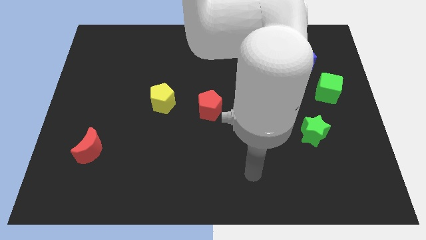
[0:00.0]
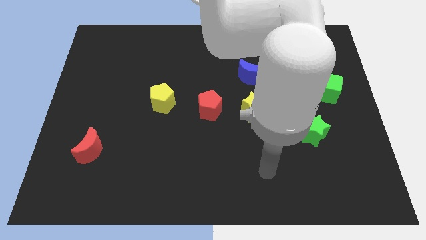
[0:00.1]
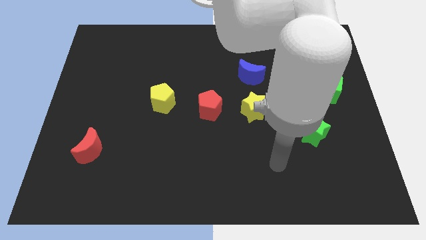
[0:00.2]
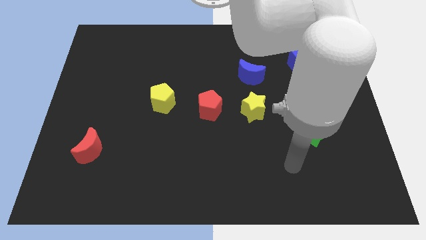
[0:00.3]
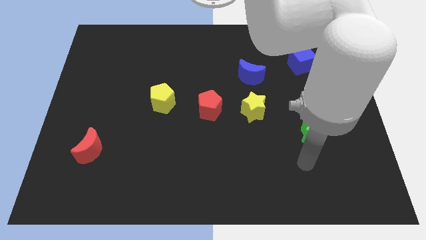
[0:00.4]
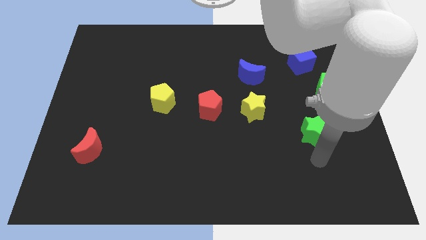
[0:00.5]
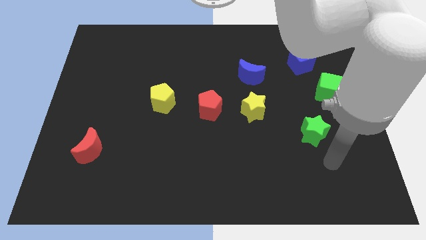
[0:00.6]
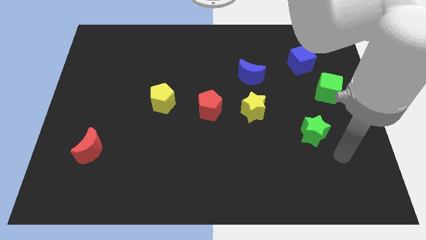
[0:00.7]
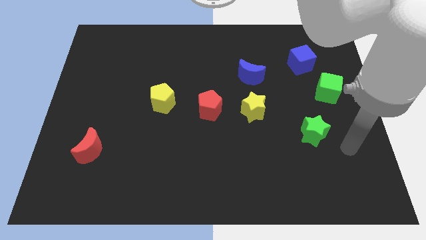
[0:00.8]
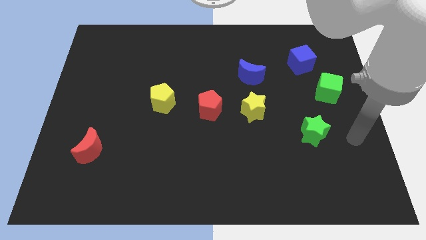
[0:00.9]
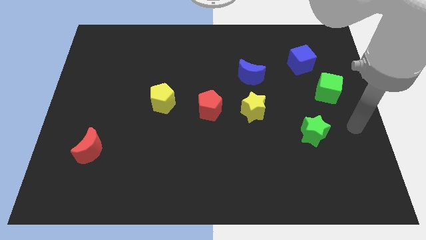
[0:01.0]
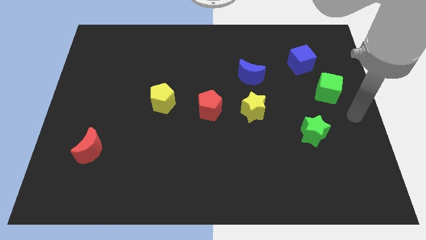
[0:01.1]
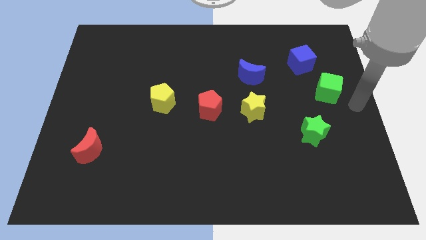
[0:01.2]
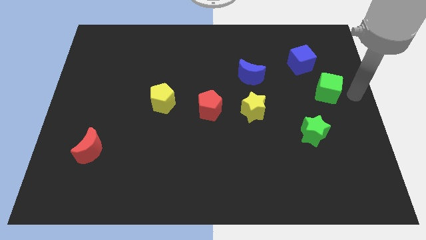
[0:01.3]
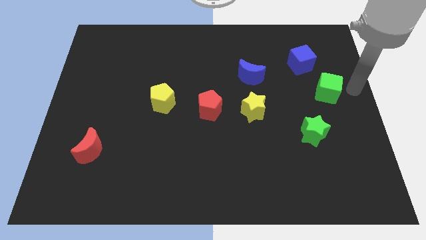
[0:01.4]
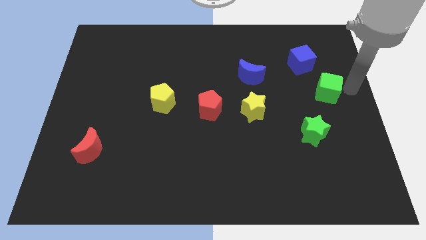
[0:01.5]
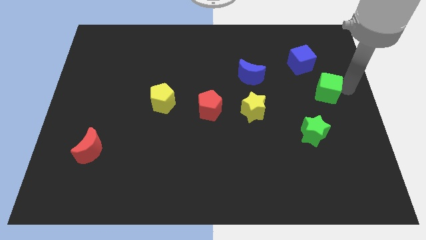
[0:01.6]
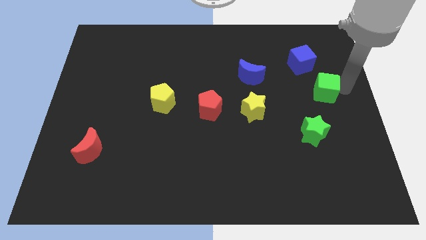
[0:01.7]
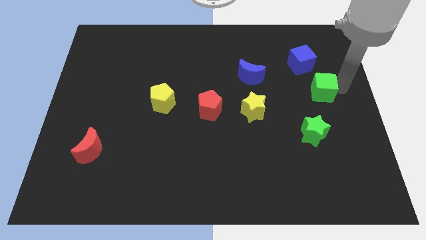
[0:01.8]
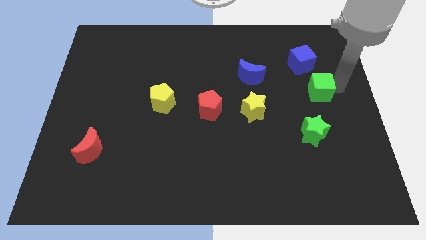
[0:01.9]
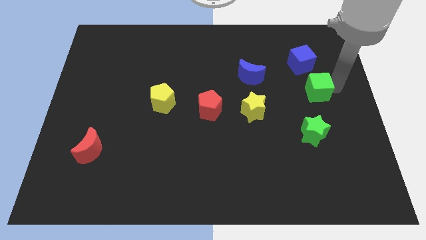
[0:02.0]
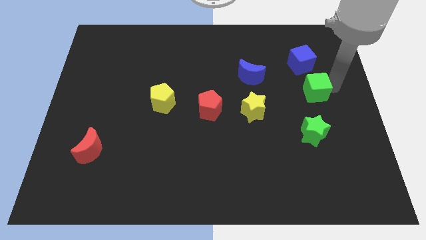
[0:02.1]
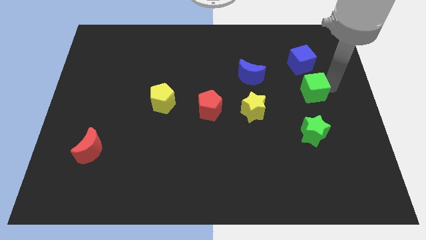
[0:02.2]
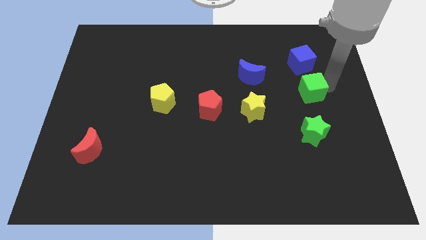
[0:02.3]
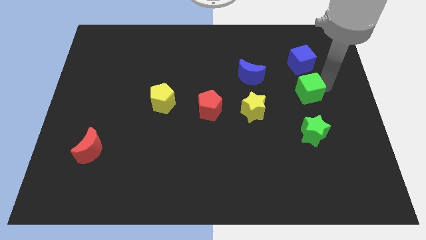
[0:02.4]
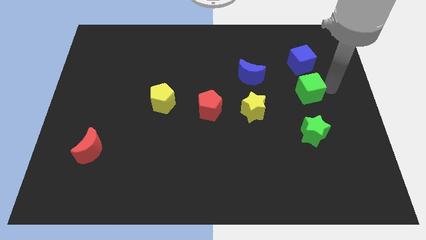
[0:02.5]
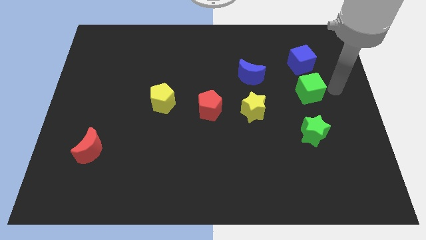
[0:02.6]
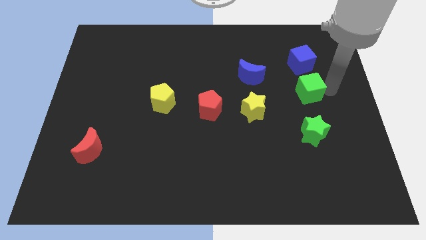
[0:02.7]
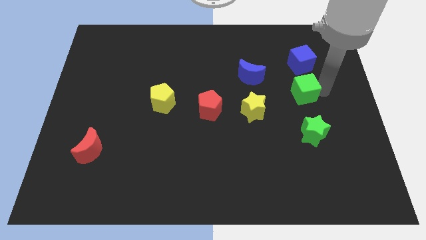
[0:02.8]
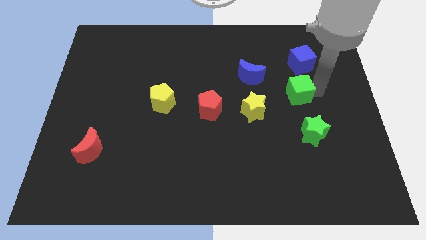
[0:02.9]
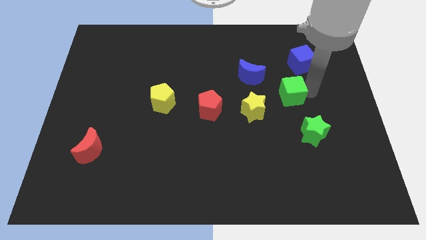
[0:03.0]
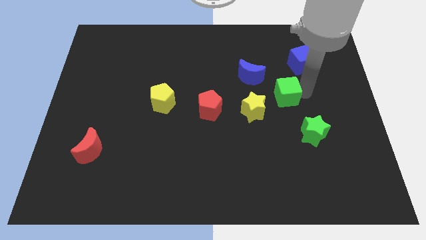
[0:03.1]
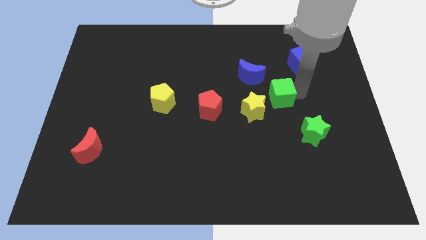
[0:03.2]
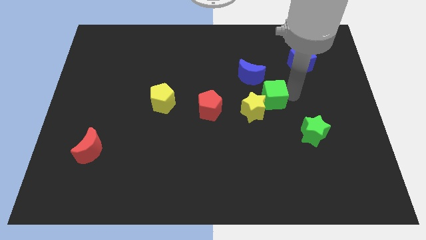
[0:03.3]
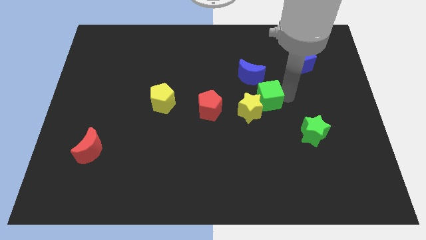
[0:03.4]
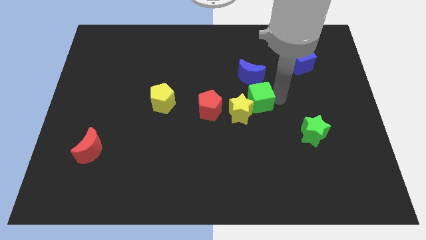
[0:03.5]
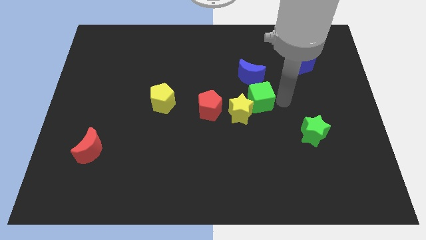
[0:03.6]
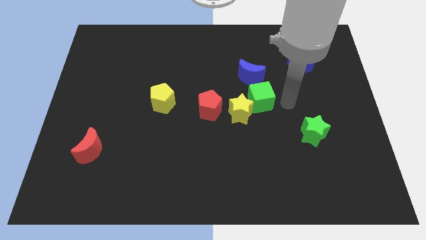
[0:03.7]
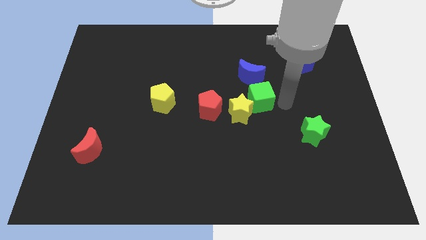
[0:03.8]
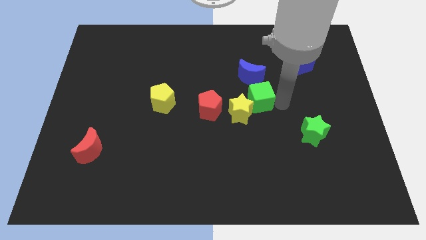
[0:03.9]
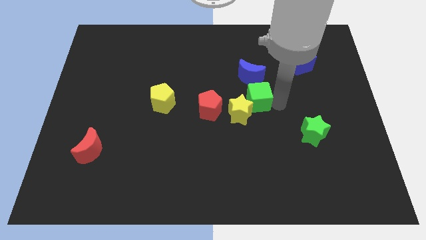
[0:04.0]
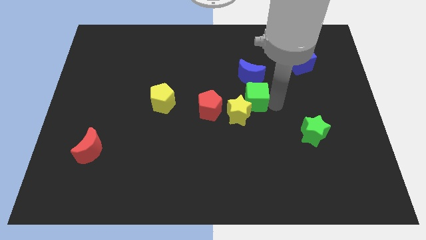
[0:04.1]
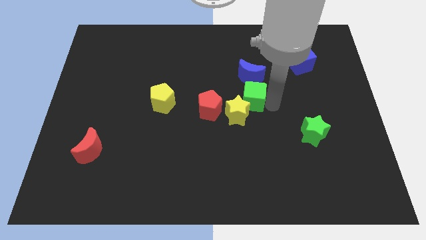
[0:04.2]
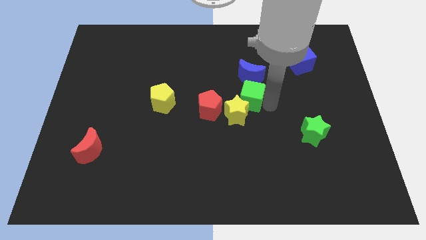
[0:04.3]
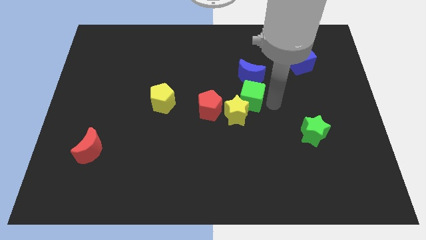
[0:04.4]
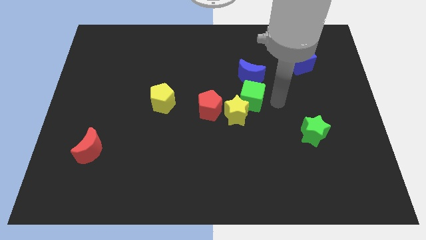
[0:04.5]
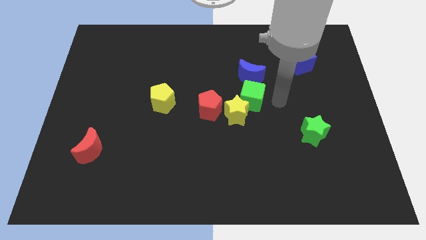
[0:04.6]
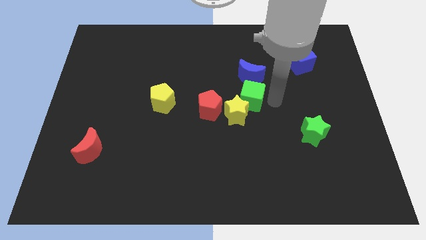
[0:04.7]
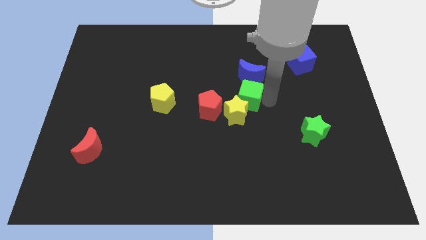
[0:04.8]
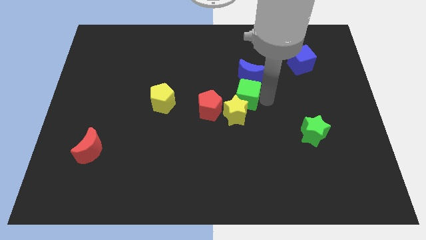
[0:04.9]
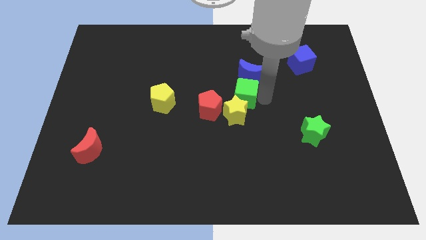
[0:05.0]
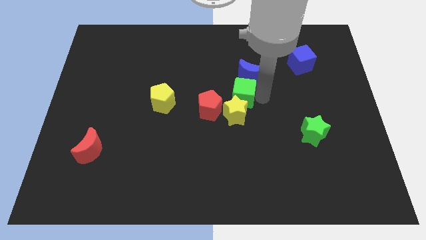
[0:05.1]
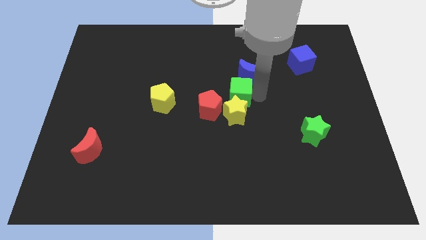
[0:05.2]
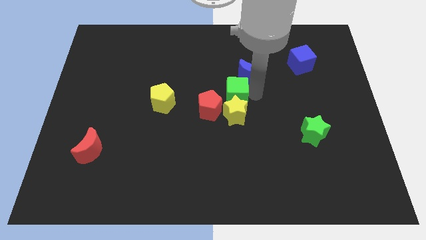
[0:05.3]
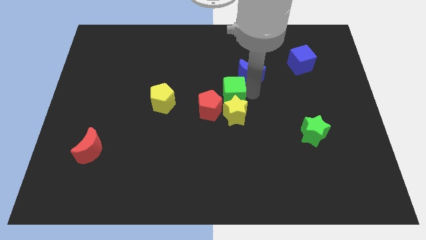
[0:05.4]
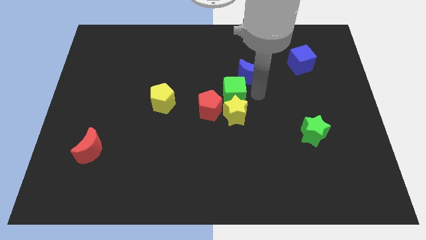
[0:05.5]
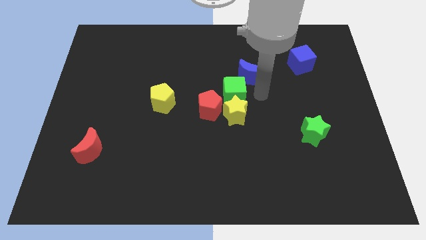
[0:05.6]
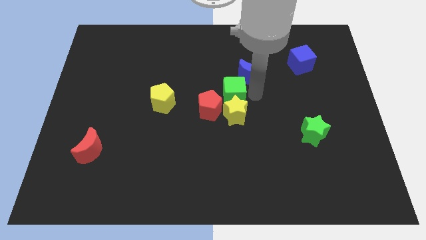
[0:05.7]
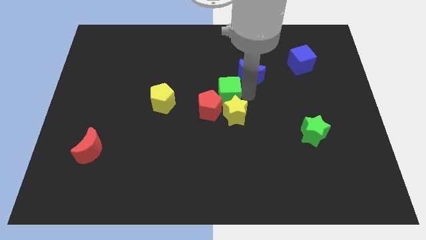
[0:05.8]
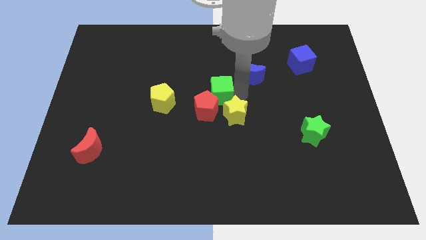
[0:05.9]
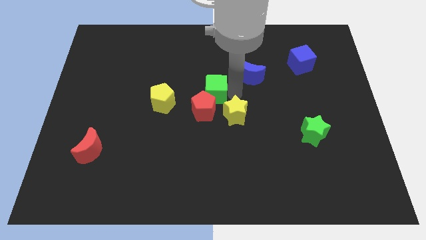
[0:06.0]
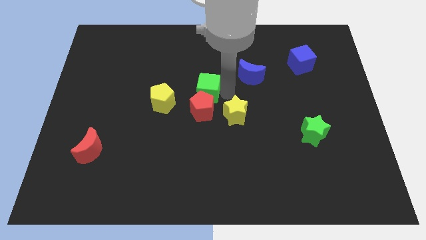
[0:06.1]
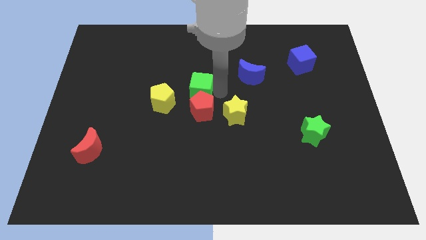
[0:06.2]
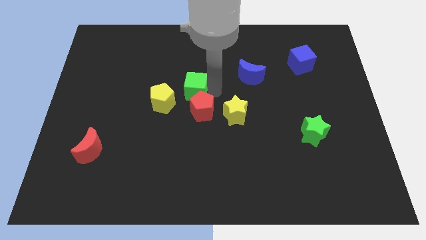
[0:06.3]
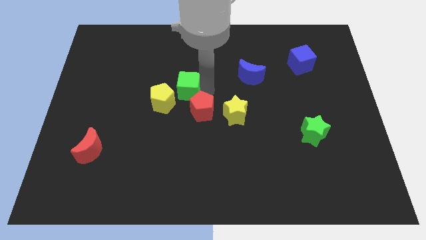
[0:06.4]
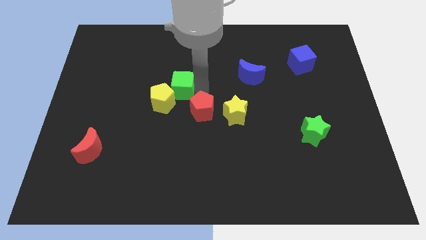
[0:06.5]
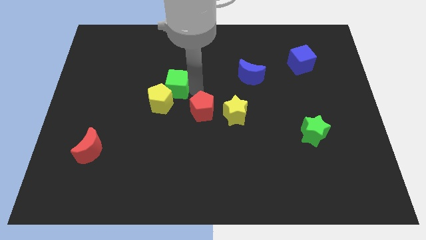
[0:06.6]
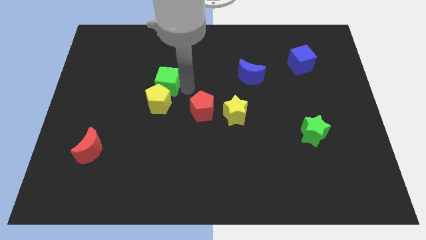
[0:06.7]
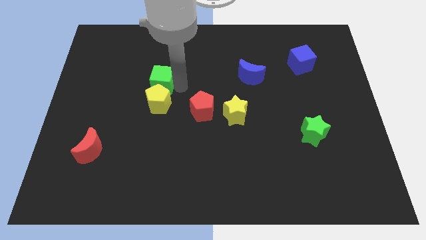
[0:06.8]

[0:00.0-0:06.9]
move the green cube to the top left of the yellow pentagon
